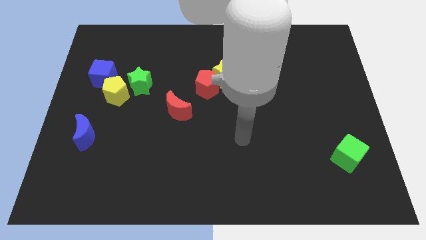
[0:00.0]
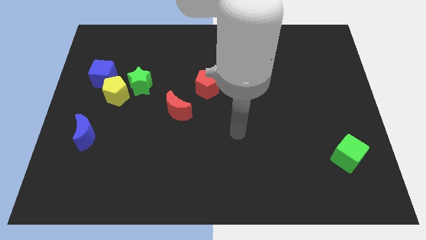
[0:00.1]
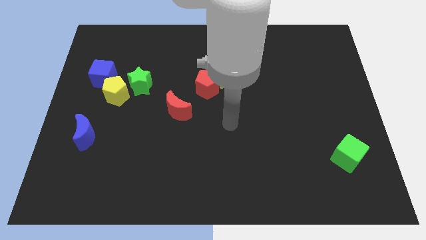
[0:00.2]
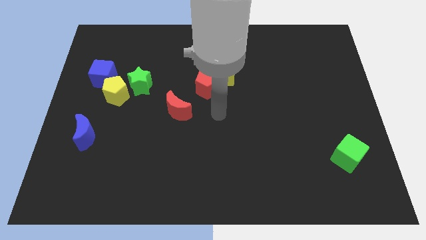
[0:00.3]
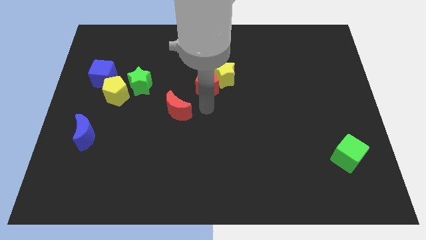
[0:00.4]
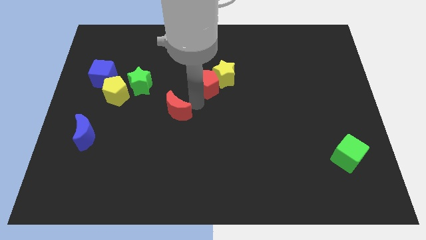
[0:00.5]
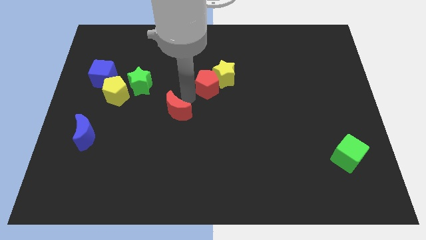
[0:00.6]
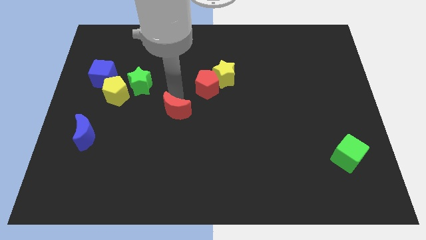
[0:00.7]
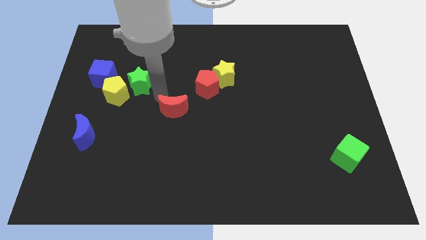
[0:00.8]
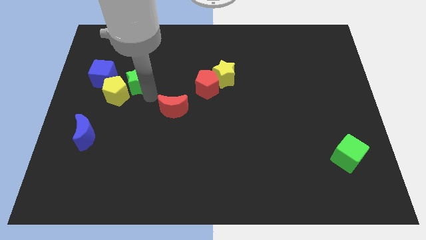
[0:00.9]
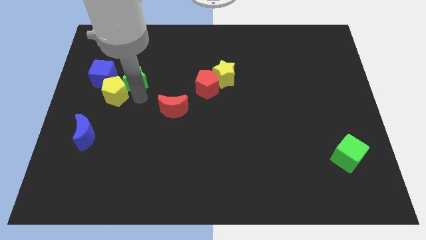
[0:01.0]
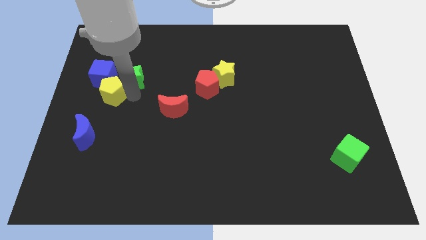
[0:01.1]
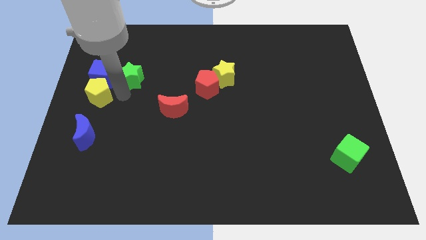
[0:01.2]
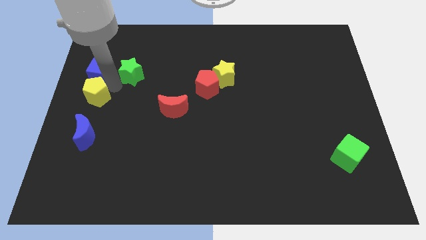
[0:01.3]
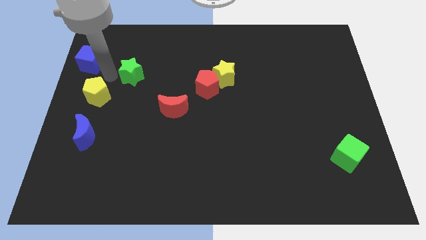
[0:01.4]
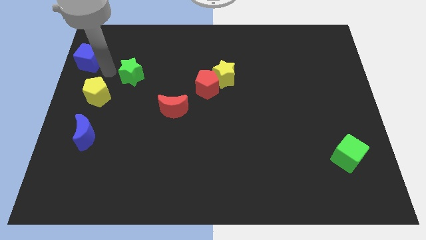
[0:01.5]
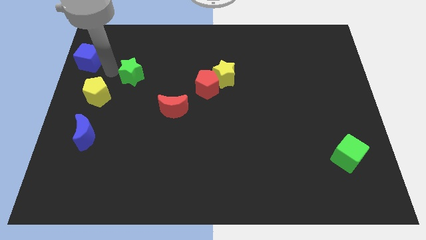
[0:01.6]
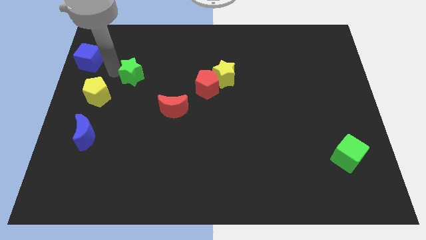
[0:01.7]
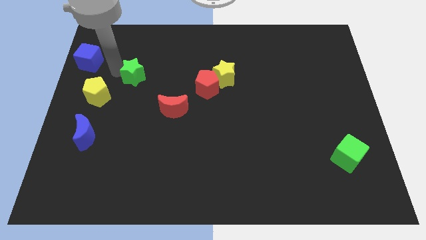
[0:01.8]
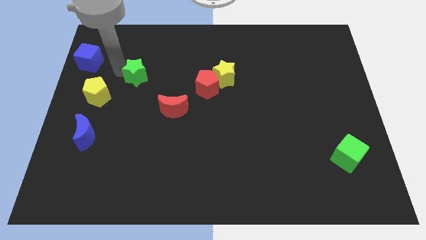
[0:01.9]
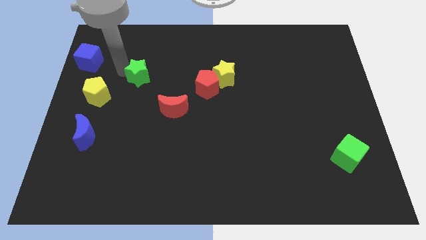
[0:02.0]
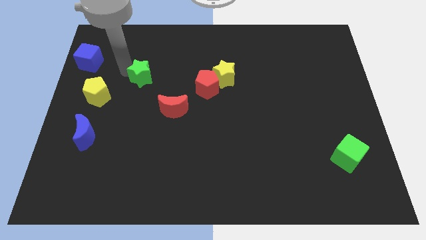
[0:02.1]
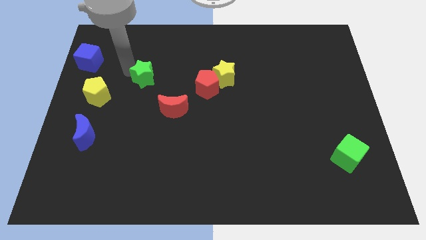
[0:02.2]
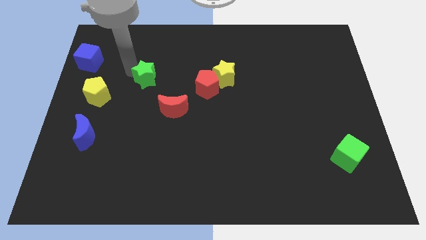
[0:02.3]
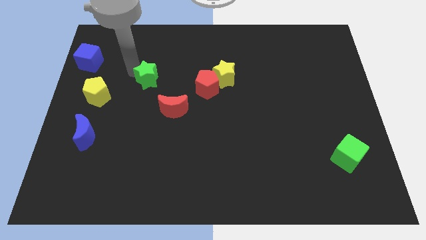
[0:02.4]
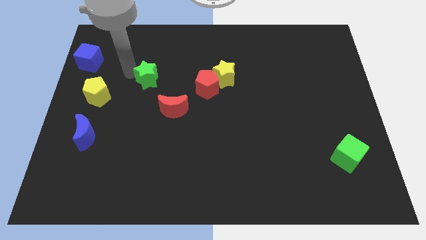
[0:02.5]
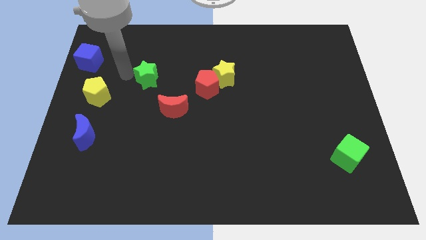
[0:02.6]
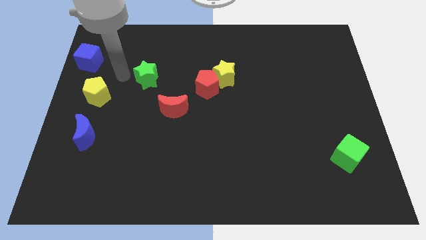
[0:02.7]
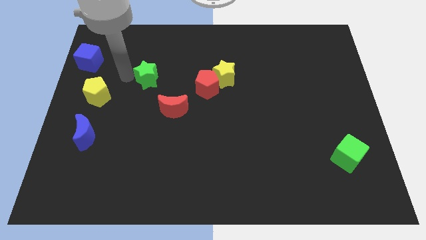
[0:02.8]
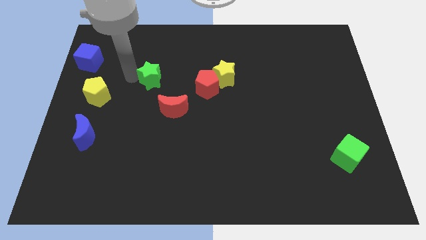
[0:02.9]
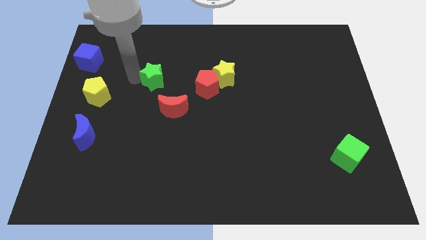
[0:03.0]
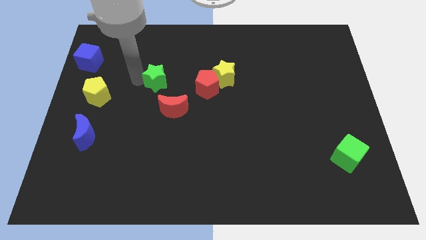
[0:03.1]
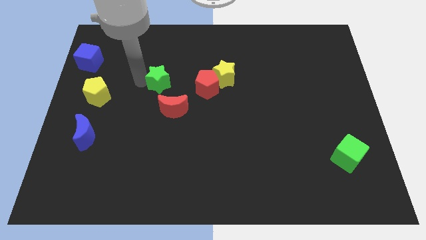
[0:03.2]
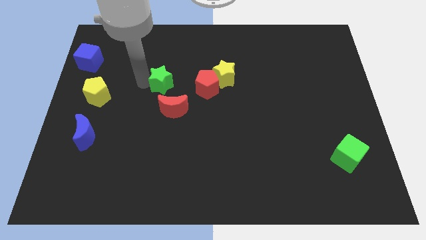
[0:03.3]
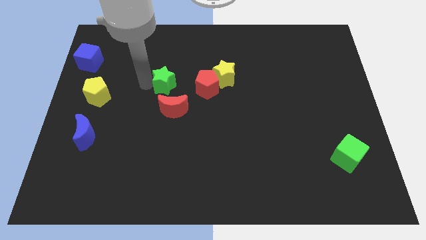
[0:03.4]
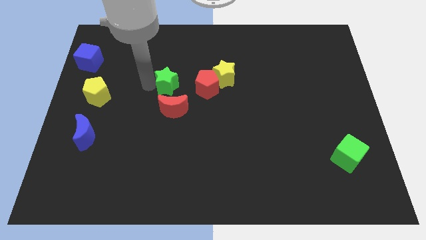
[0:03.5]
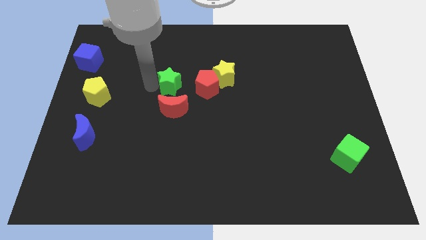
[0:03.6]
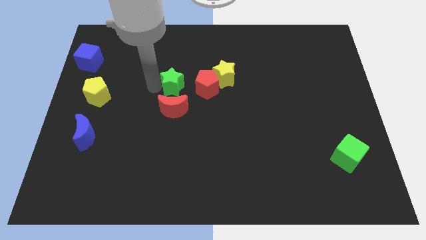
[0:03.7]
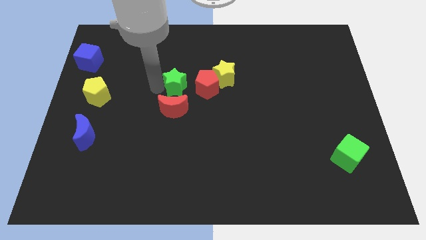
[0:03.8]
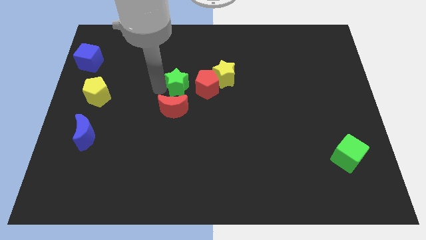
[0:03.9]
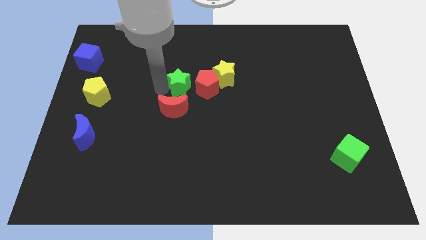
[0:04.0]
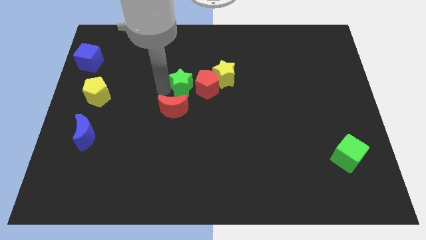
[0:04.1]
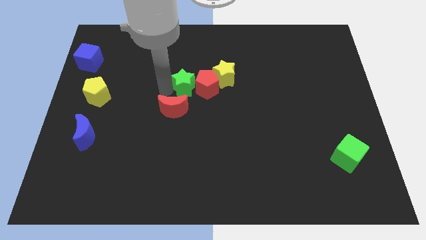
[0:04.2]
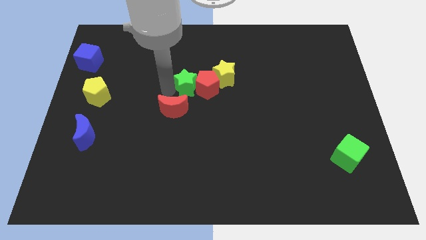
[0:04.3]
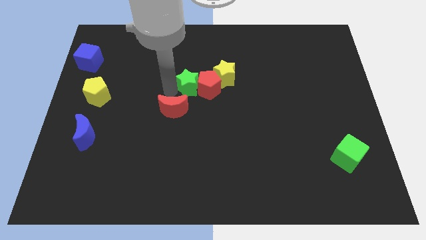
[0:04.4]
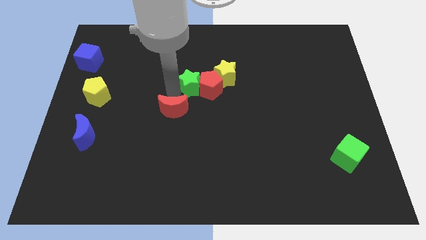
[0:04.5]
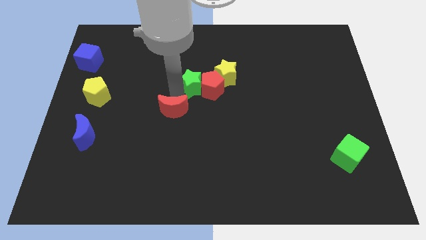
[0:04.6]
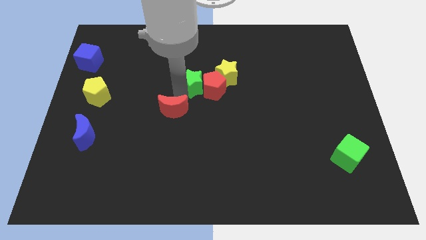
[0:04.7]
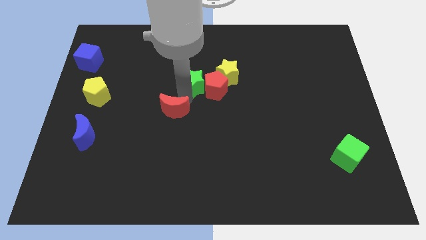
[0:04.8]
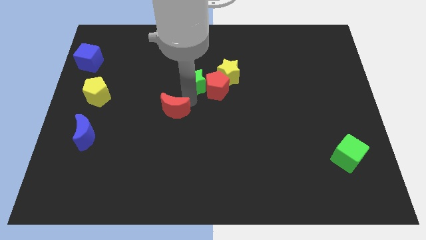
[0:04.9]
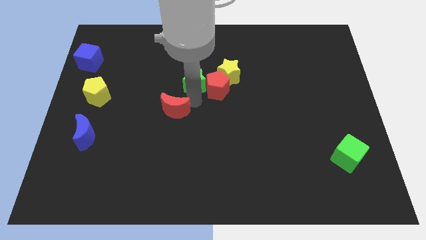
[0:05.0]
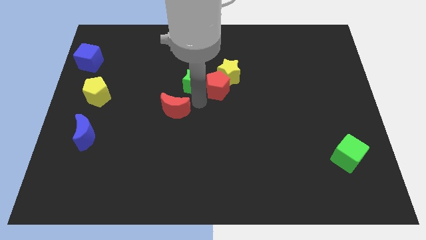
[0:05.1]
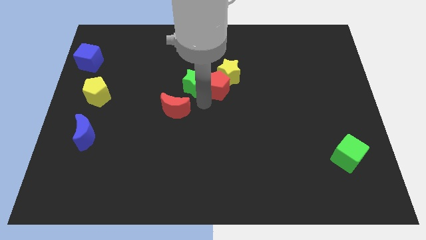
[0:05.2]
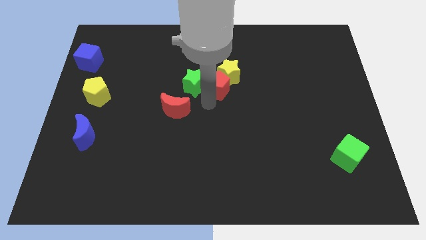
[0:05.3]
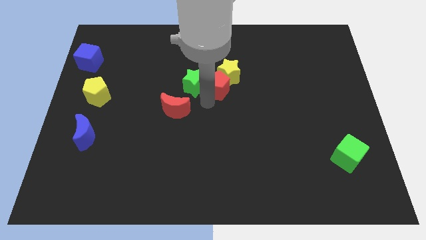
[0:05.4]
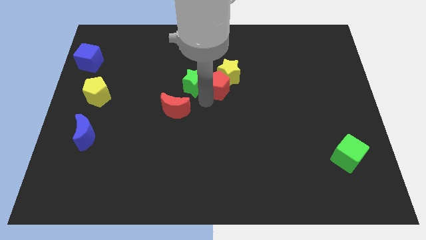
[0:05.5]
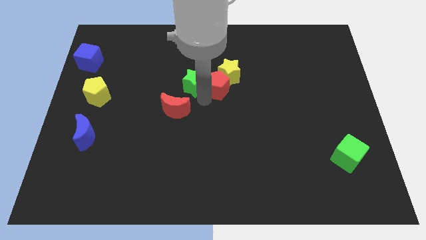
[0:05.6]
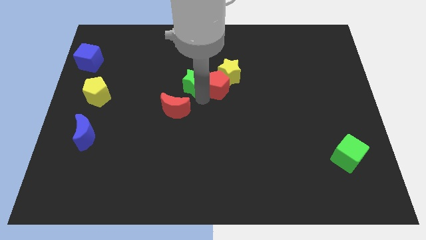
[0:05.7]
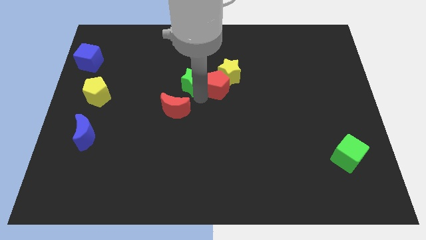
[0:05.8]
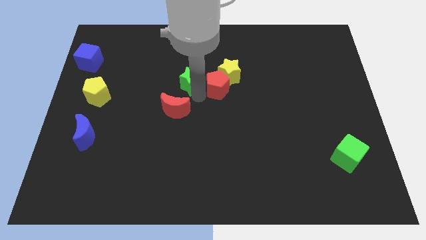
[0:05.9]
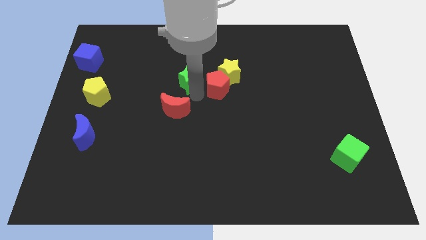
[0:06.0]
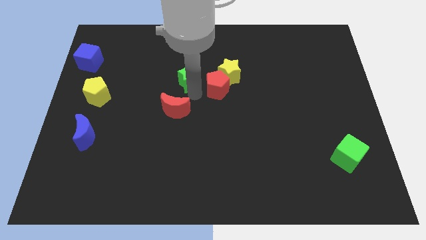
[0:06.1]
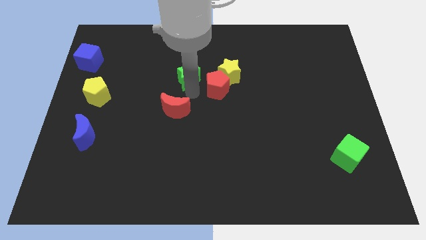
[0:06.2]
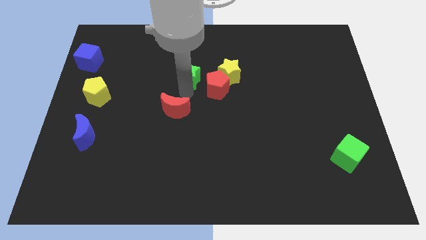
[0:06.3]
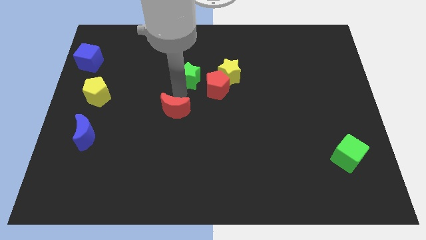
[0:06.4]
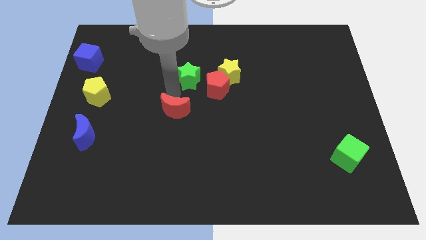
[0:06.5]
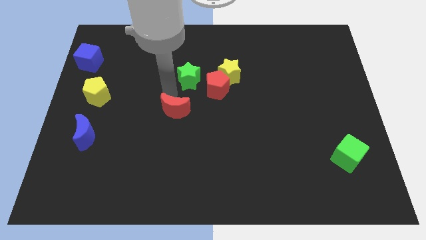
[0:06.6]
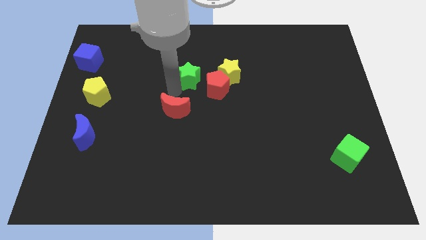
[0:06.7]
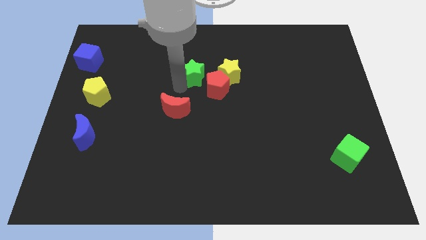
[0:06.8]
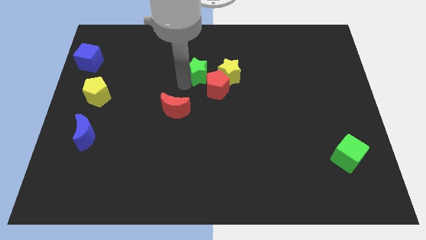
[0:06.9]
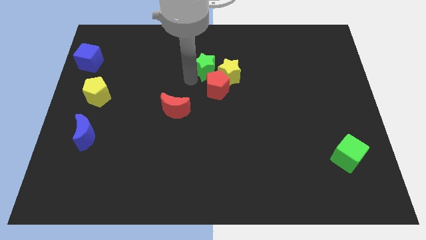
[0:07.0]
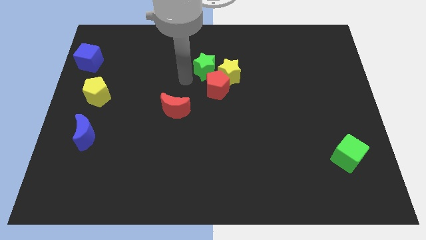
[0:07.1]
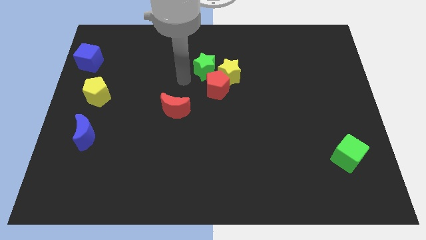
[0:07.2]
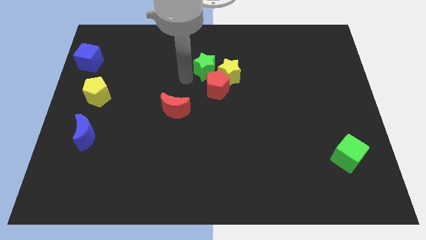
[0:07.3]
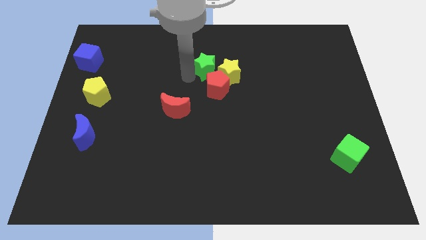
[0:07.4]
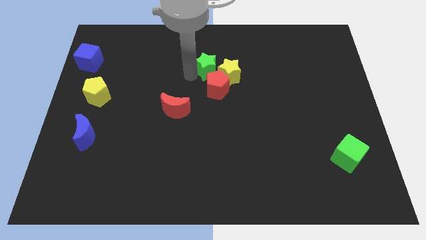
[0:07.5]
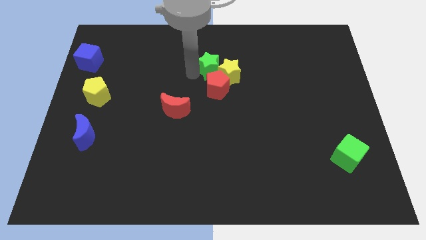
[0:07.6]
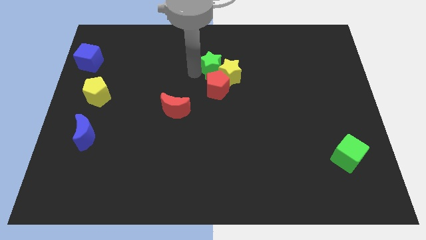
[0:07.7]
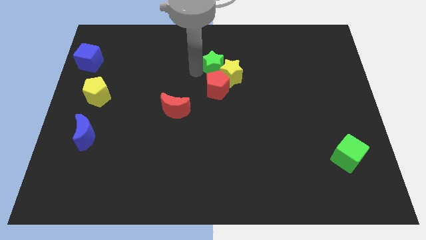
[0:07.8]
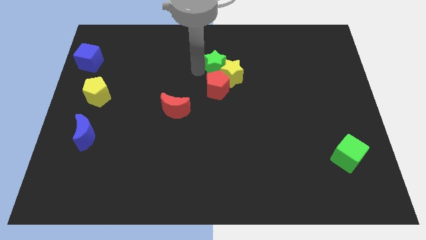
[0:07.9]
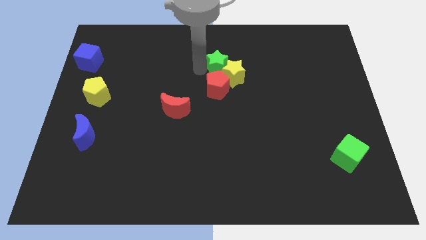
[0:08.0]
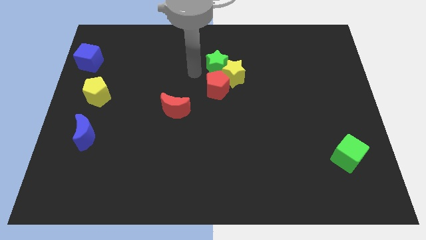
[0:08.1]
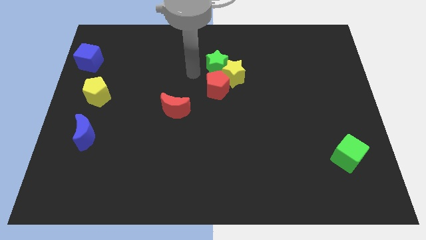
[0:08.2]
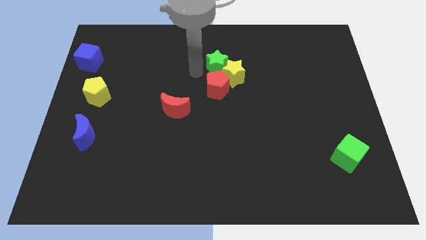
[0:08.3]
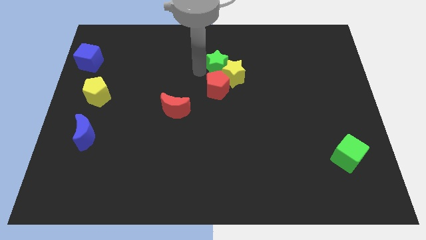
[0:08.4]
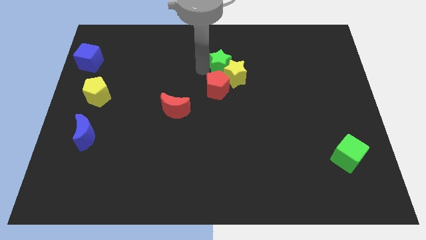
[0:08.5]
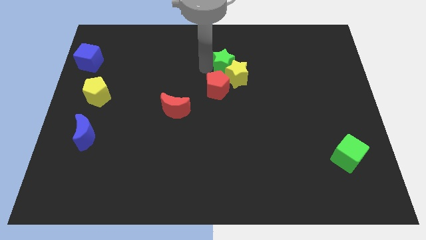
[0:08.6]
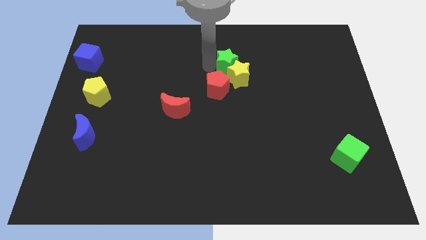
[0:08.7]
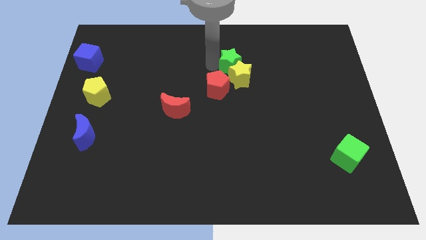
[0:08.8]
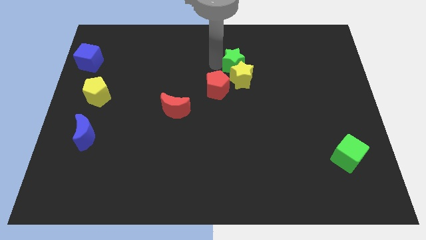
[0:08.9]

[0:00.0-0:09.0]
push the green star to the top right side of the yellow star
